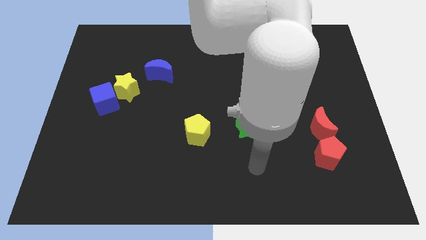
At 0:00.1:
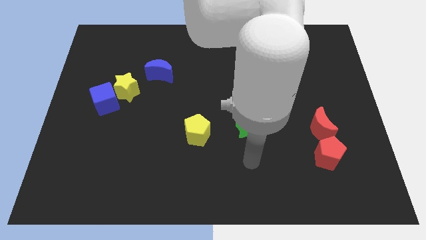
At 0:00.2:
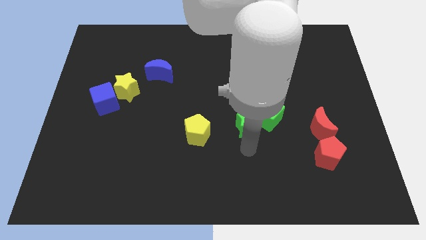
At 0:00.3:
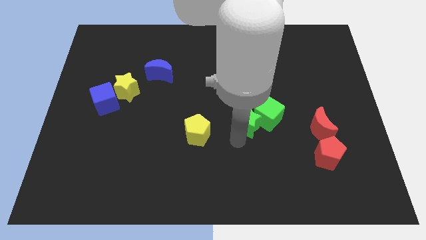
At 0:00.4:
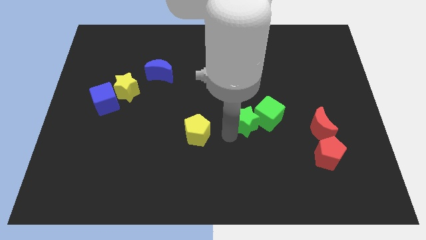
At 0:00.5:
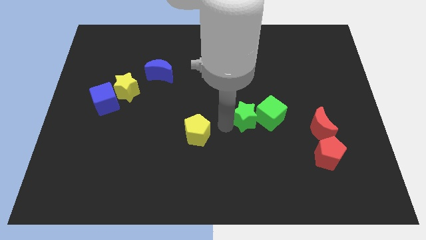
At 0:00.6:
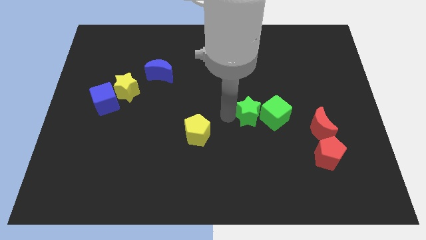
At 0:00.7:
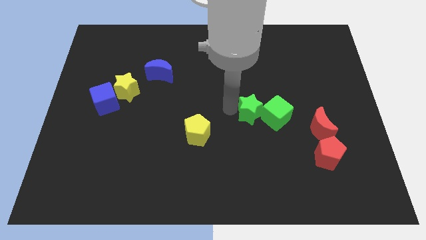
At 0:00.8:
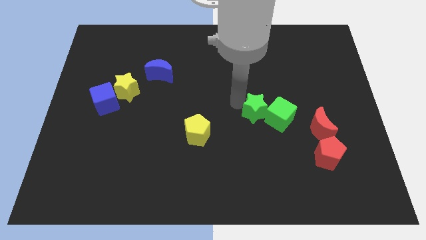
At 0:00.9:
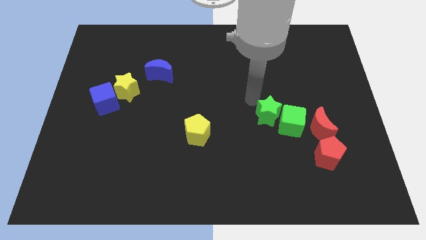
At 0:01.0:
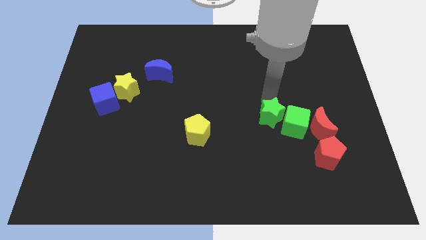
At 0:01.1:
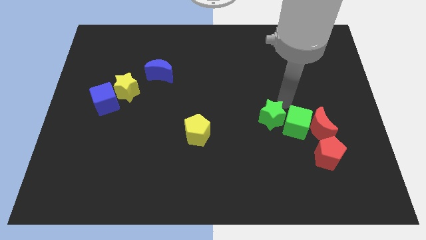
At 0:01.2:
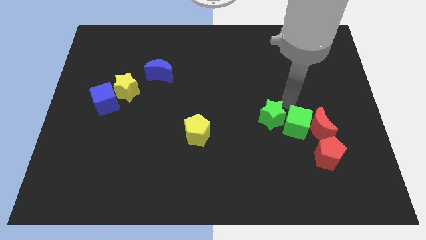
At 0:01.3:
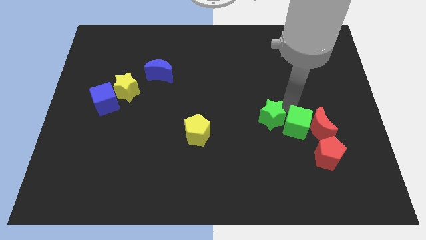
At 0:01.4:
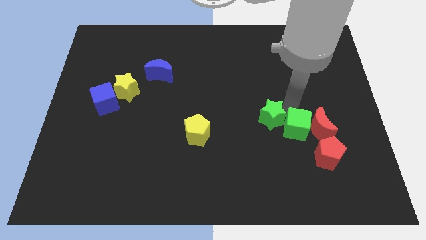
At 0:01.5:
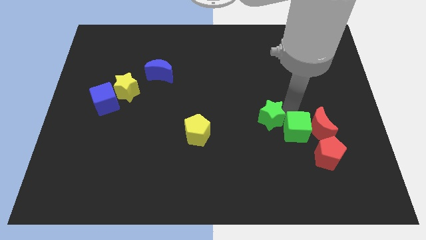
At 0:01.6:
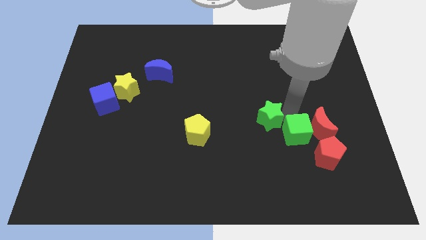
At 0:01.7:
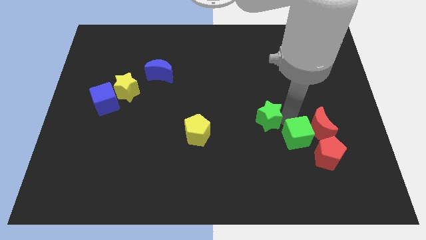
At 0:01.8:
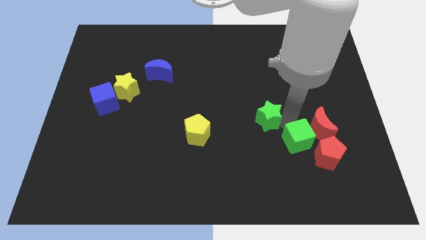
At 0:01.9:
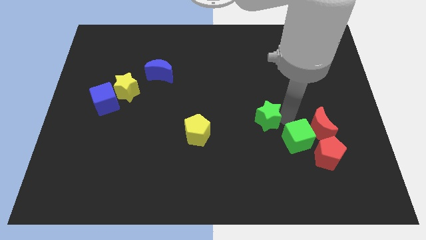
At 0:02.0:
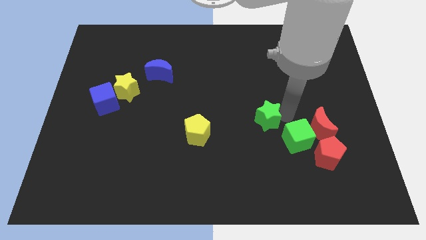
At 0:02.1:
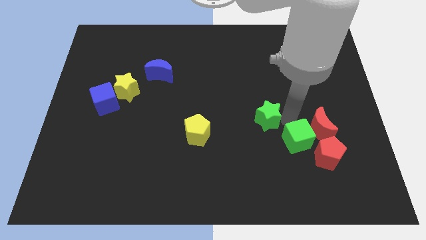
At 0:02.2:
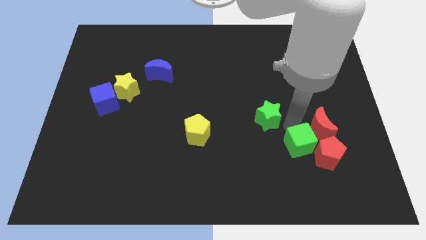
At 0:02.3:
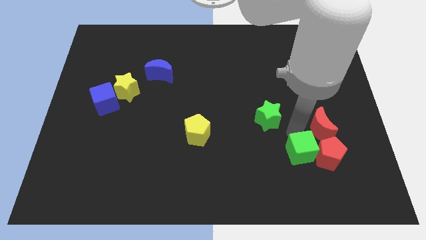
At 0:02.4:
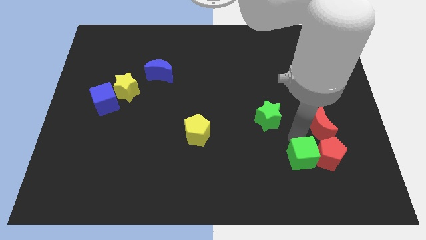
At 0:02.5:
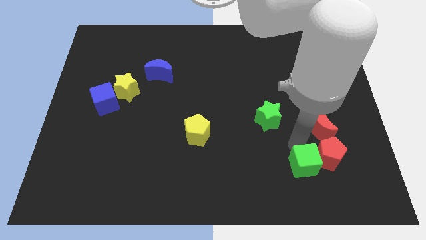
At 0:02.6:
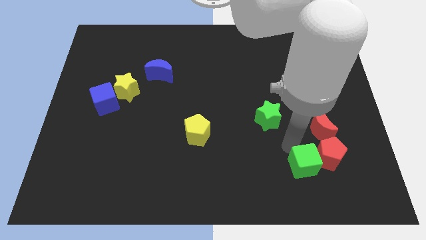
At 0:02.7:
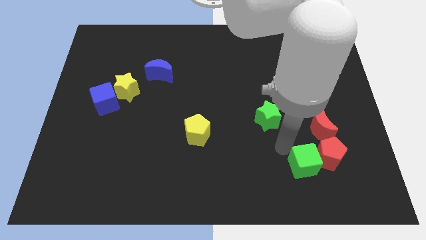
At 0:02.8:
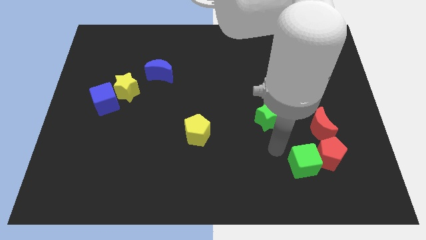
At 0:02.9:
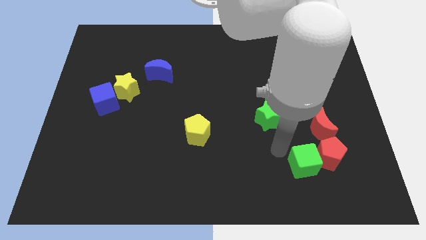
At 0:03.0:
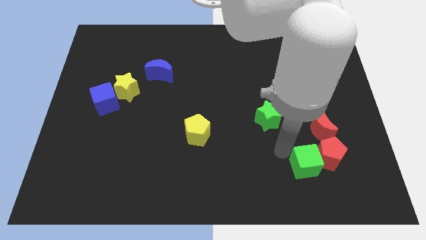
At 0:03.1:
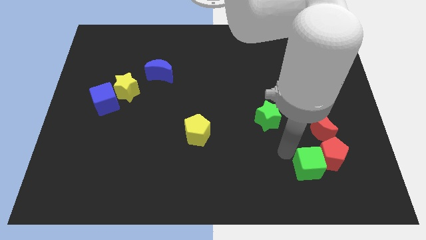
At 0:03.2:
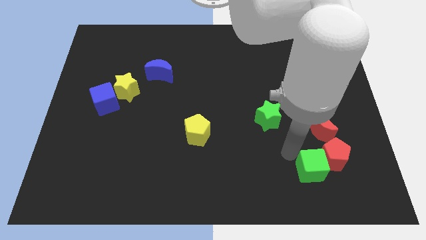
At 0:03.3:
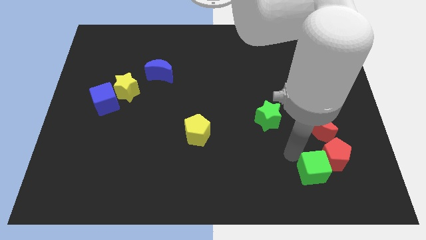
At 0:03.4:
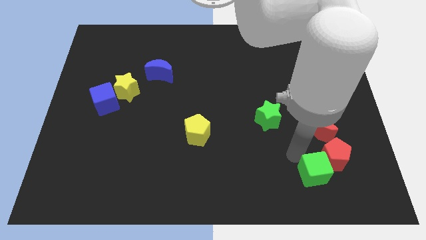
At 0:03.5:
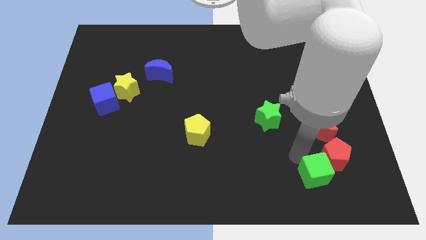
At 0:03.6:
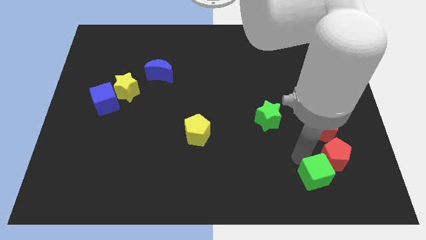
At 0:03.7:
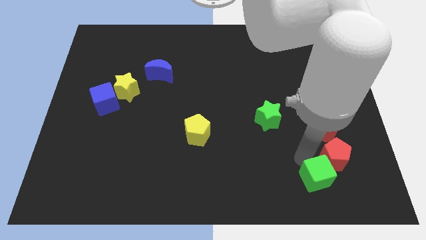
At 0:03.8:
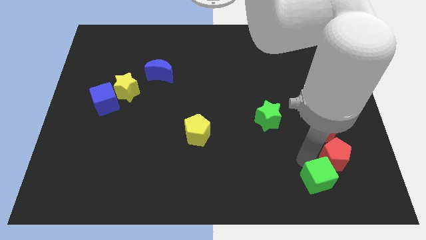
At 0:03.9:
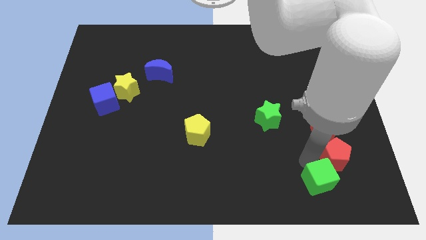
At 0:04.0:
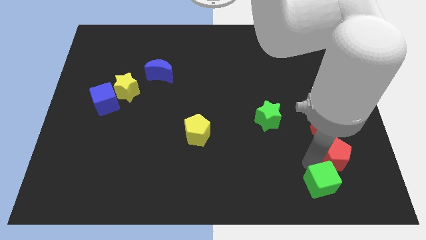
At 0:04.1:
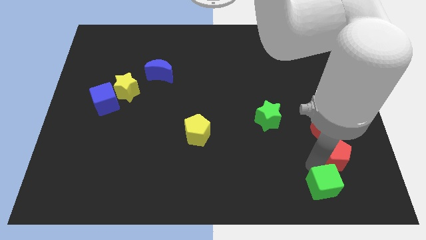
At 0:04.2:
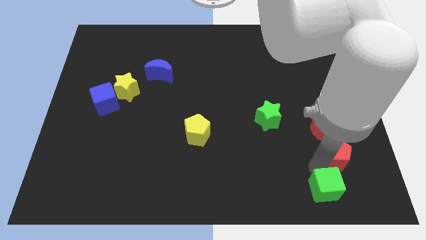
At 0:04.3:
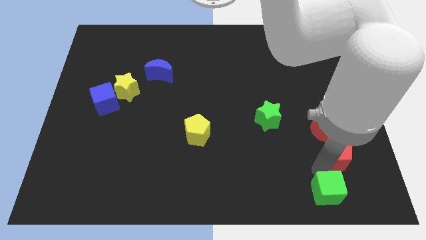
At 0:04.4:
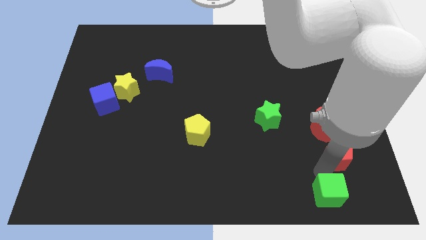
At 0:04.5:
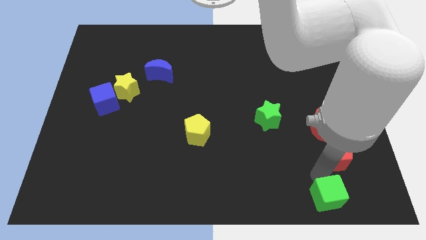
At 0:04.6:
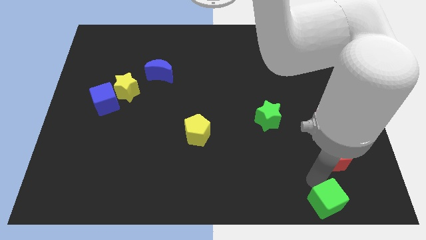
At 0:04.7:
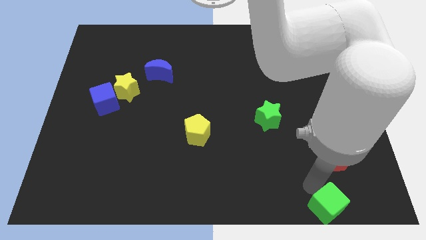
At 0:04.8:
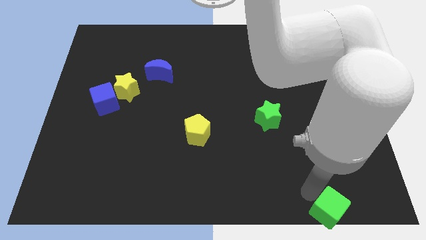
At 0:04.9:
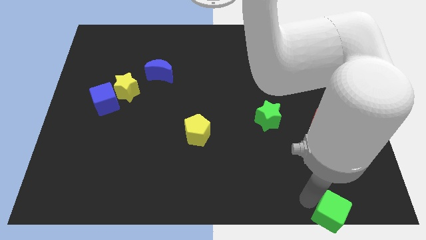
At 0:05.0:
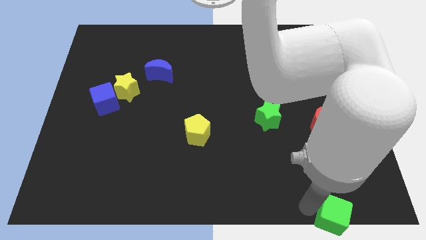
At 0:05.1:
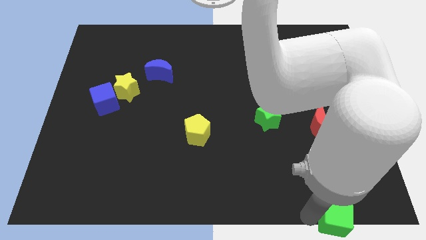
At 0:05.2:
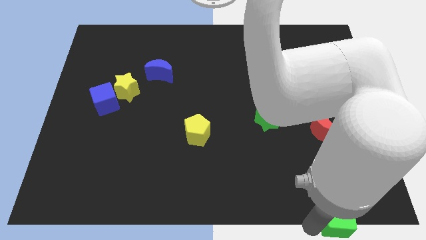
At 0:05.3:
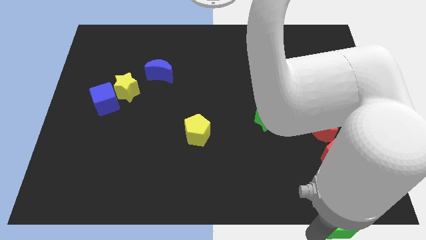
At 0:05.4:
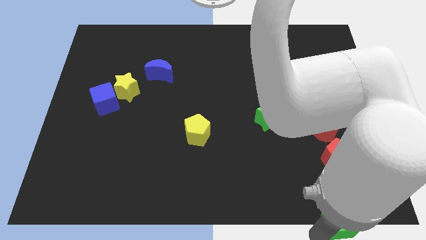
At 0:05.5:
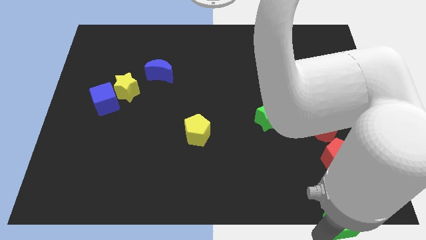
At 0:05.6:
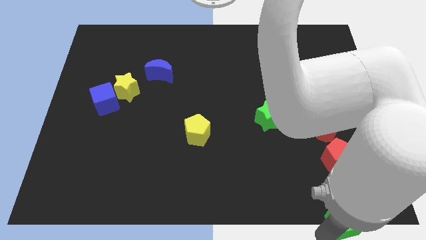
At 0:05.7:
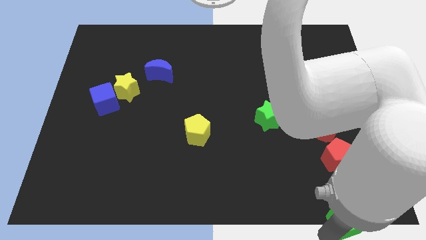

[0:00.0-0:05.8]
push the green cube to the lower right corner
